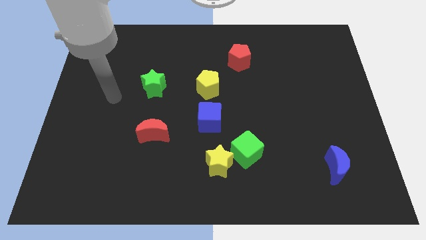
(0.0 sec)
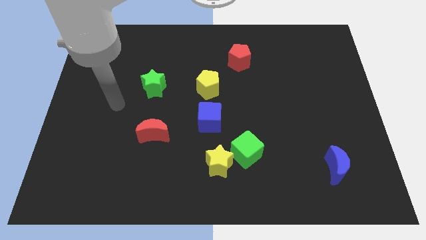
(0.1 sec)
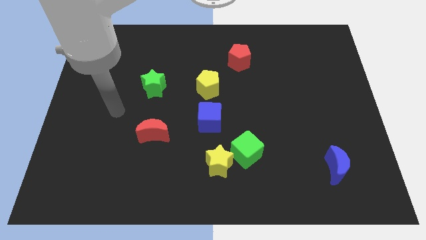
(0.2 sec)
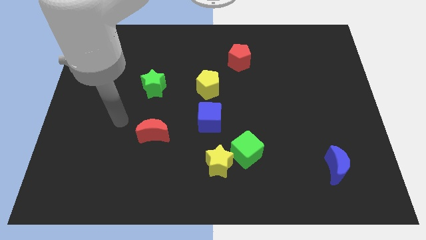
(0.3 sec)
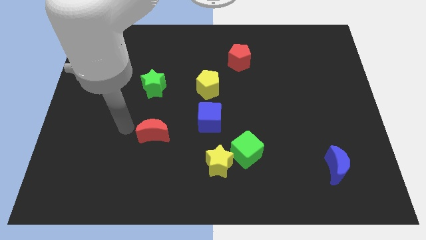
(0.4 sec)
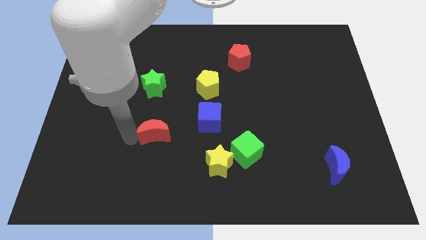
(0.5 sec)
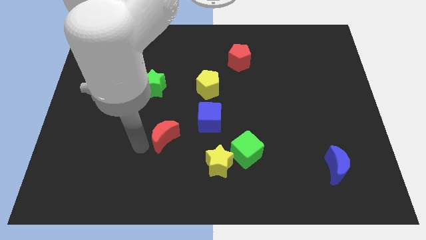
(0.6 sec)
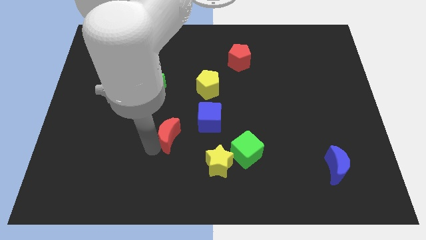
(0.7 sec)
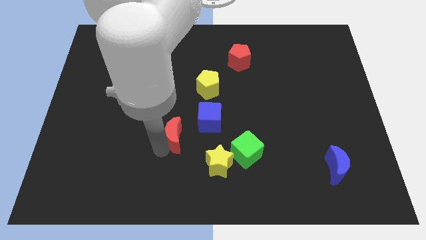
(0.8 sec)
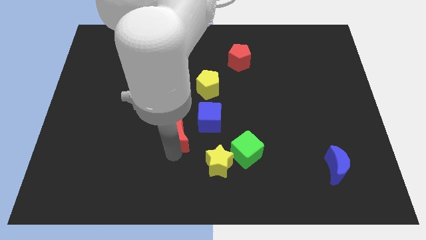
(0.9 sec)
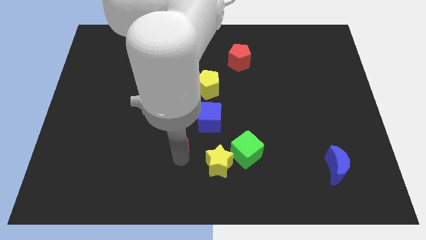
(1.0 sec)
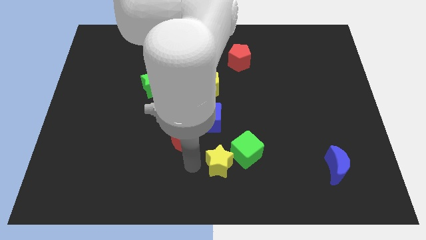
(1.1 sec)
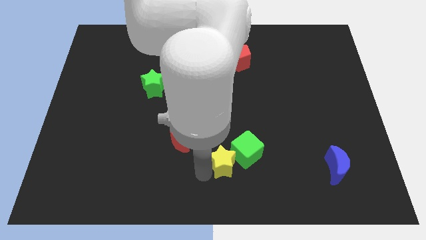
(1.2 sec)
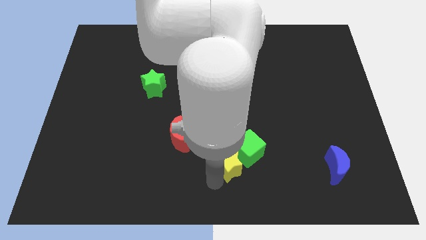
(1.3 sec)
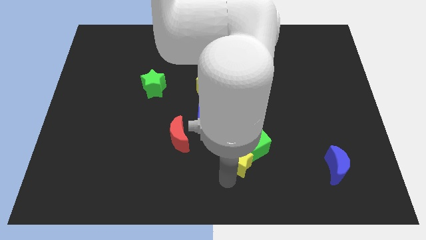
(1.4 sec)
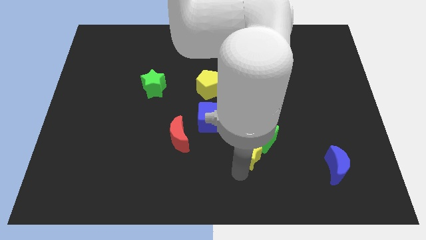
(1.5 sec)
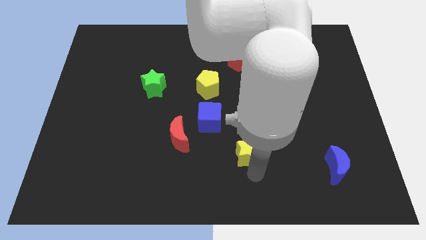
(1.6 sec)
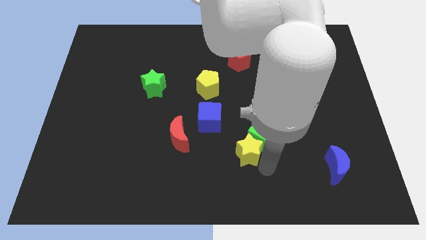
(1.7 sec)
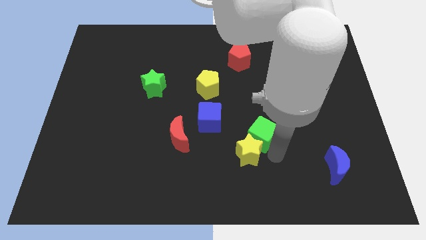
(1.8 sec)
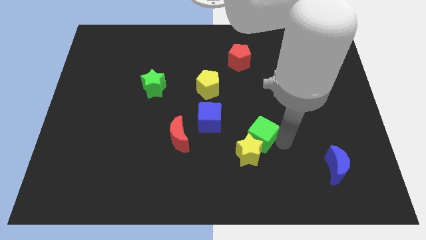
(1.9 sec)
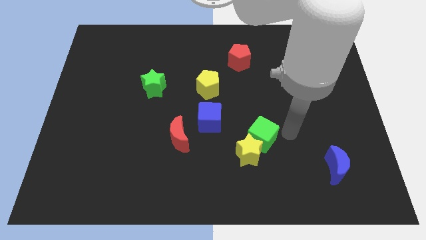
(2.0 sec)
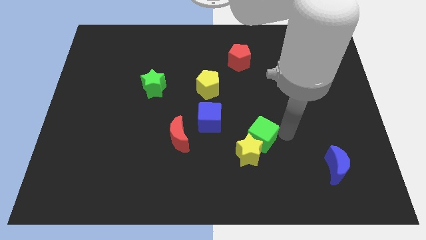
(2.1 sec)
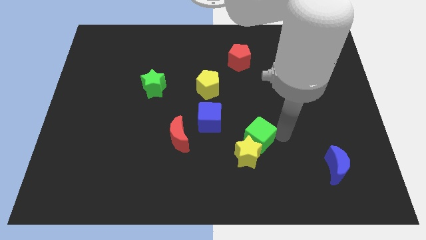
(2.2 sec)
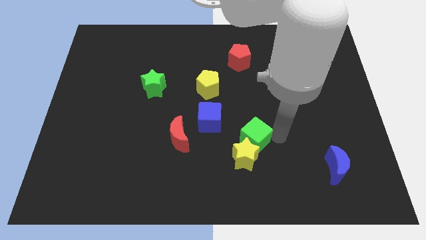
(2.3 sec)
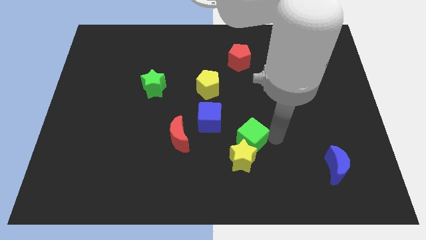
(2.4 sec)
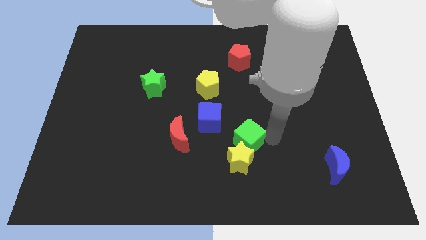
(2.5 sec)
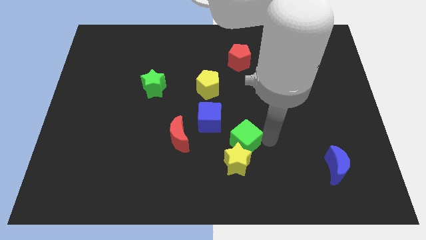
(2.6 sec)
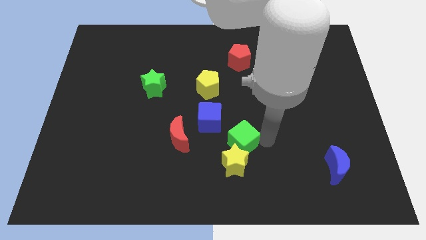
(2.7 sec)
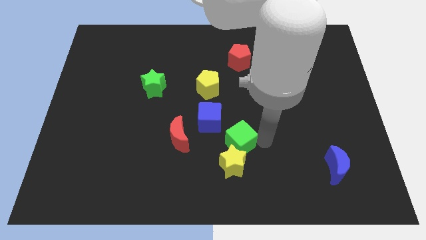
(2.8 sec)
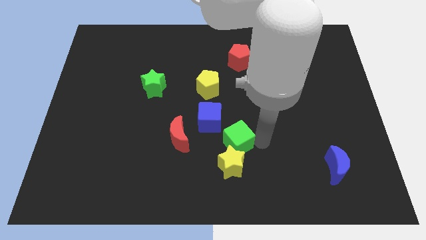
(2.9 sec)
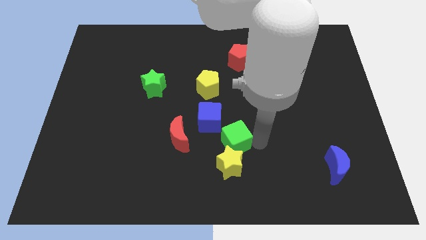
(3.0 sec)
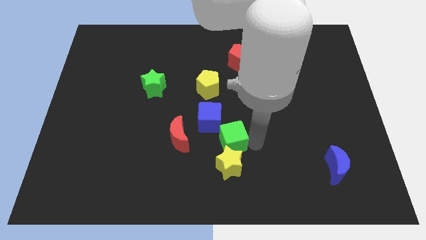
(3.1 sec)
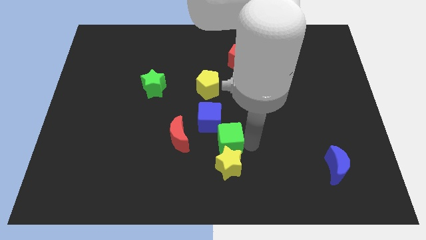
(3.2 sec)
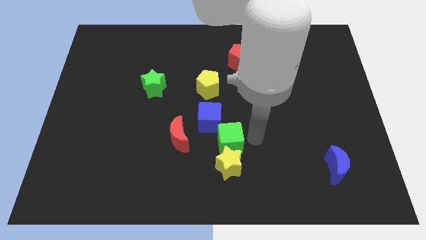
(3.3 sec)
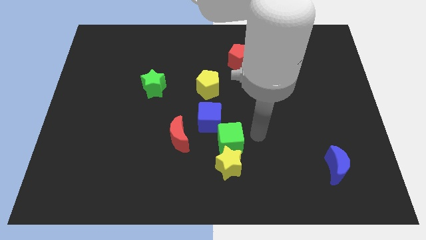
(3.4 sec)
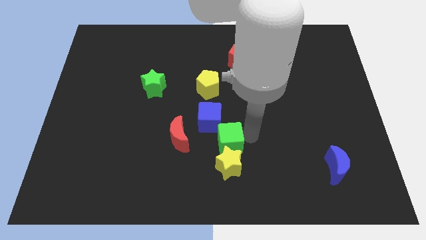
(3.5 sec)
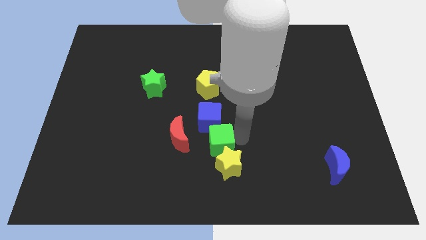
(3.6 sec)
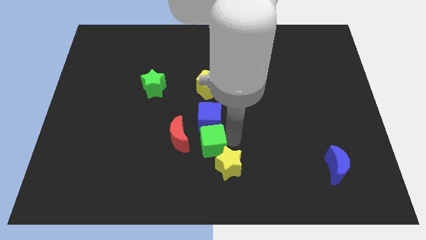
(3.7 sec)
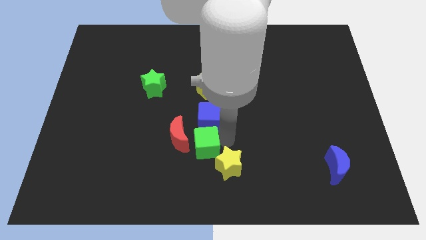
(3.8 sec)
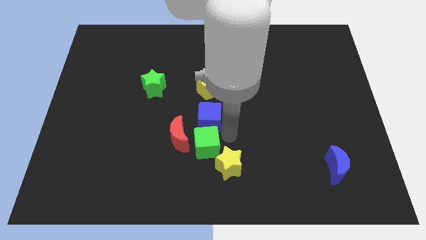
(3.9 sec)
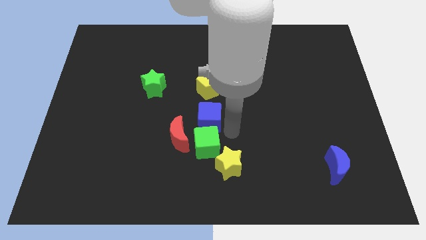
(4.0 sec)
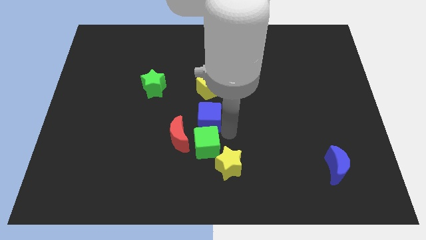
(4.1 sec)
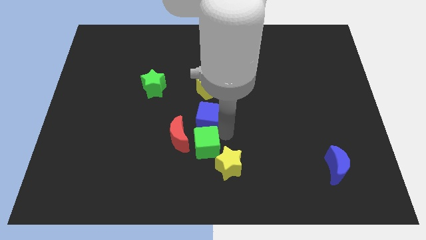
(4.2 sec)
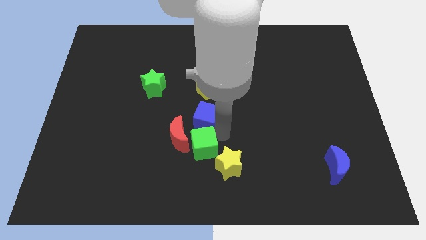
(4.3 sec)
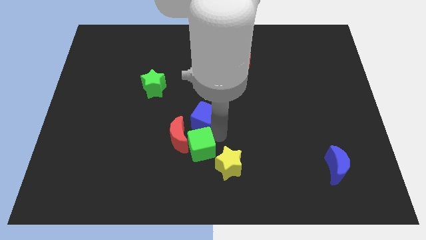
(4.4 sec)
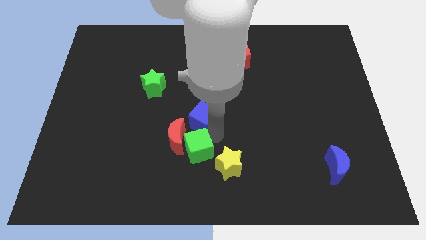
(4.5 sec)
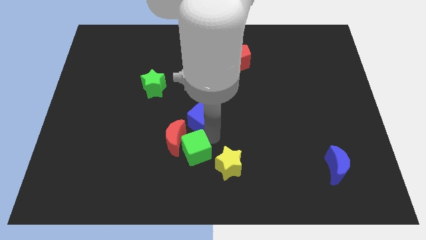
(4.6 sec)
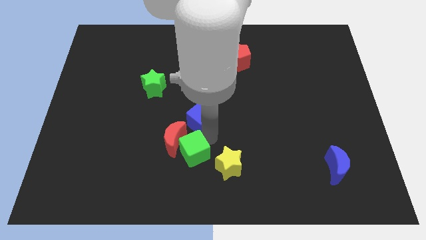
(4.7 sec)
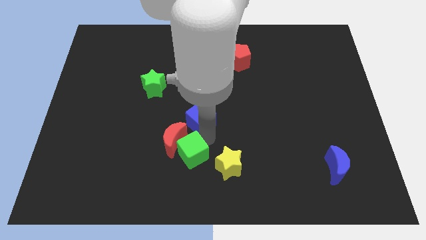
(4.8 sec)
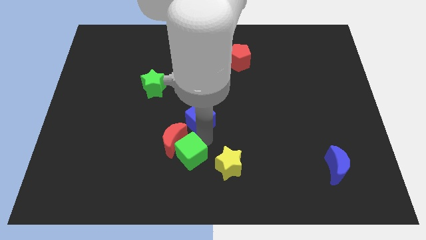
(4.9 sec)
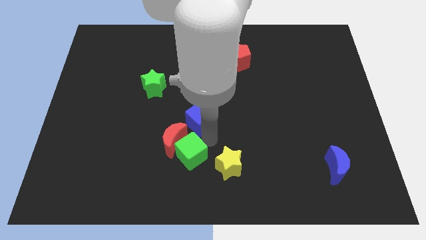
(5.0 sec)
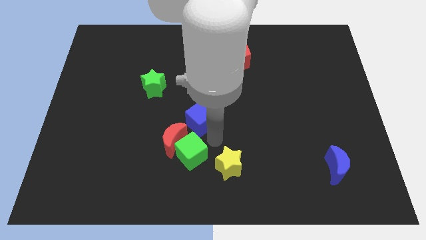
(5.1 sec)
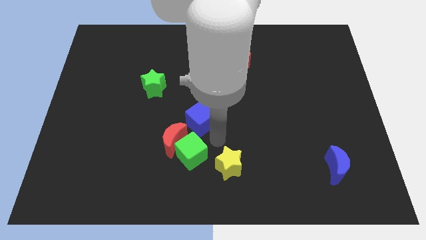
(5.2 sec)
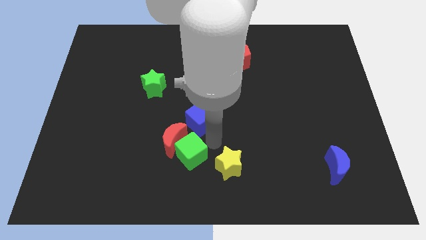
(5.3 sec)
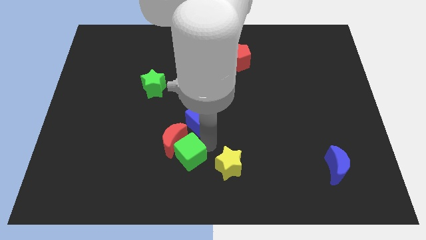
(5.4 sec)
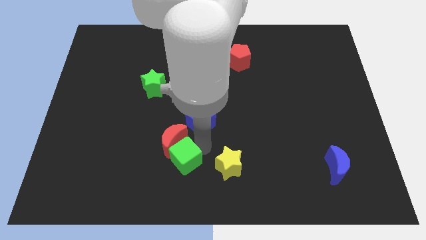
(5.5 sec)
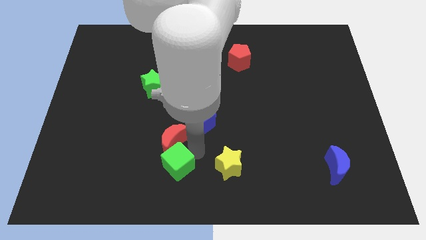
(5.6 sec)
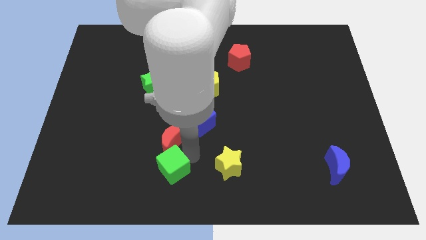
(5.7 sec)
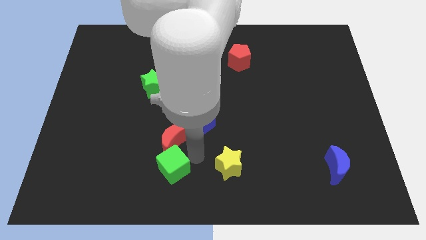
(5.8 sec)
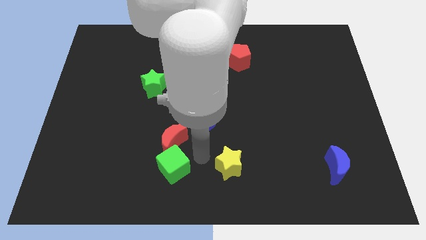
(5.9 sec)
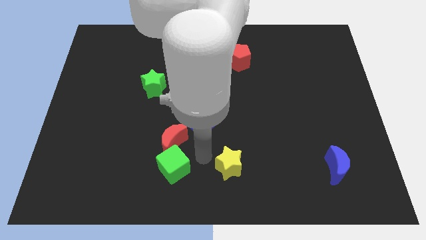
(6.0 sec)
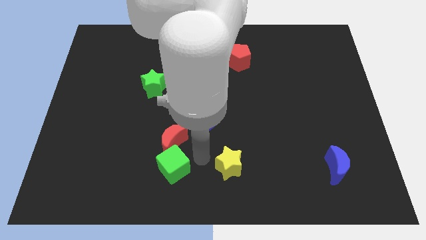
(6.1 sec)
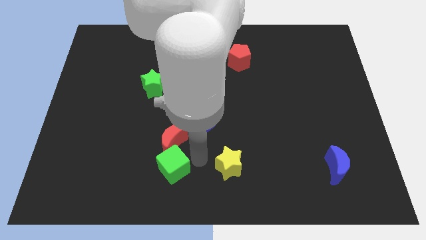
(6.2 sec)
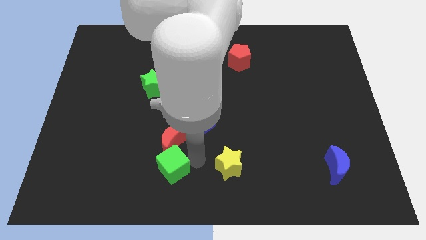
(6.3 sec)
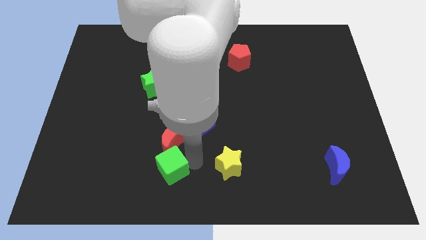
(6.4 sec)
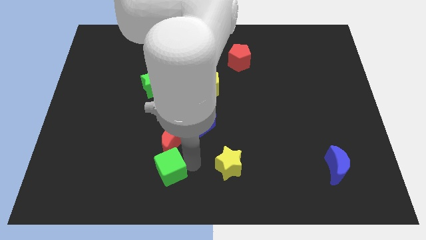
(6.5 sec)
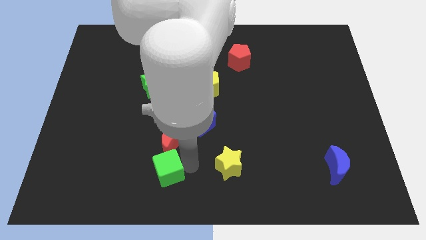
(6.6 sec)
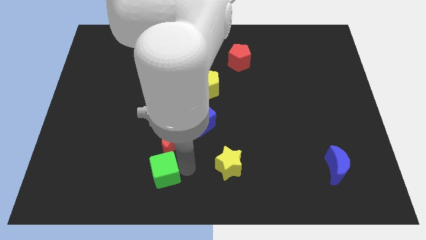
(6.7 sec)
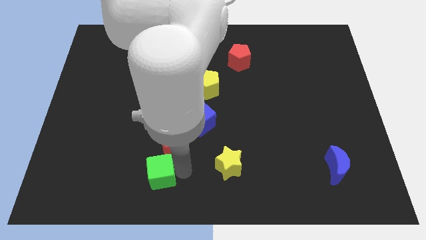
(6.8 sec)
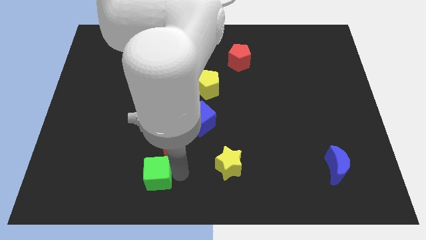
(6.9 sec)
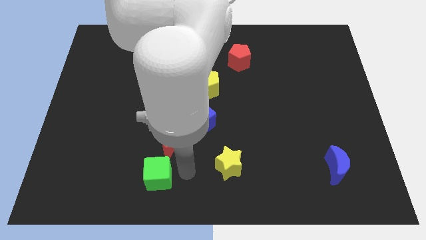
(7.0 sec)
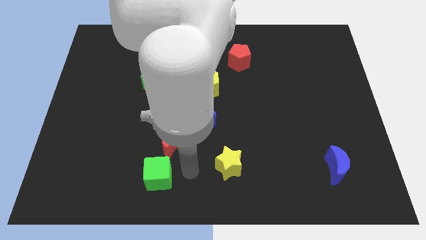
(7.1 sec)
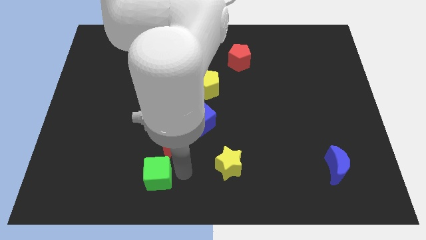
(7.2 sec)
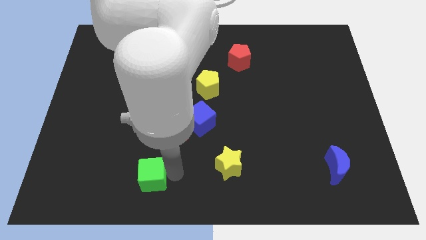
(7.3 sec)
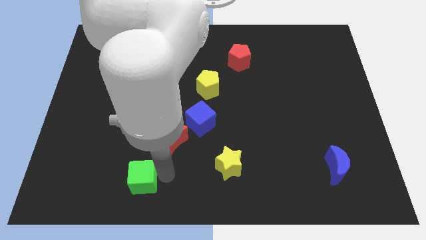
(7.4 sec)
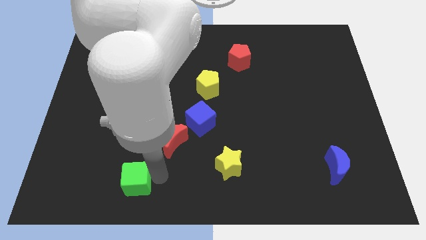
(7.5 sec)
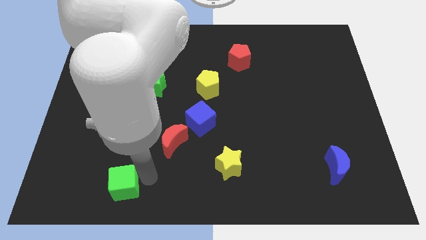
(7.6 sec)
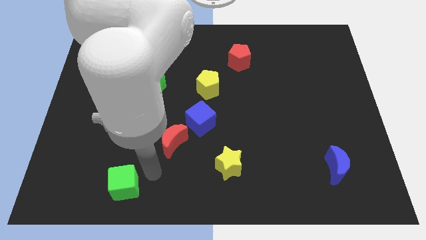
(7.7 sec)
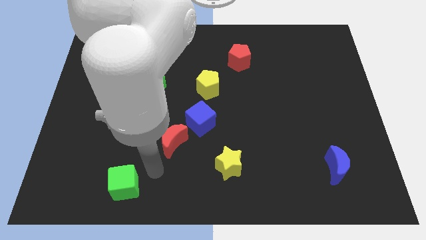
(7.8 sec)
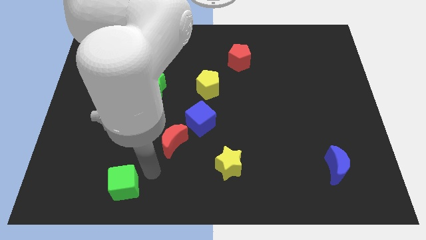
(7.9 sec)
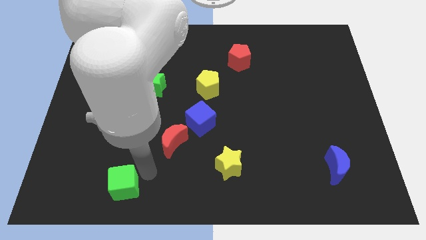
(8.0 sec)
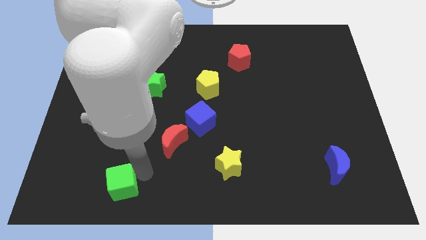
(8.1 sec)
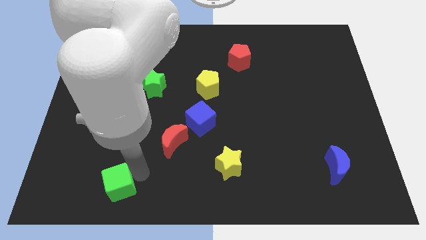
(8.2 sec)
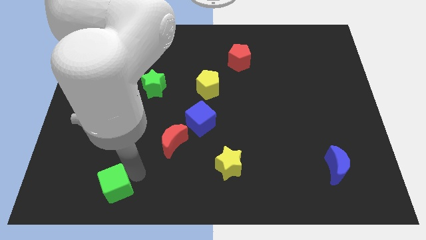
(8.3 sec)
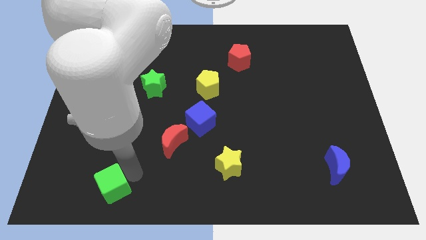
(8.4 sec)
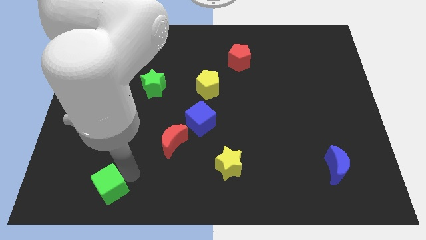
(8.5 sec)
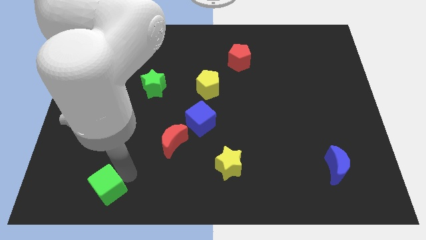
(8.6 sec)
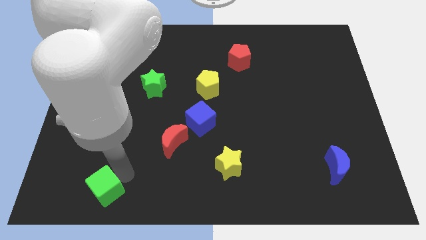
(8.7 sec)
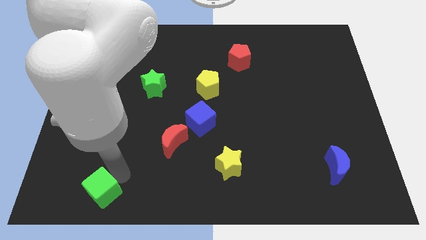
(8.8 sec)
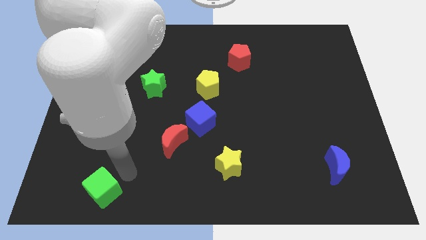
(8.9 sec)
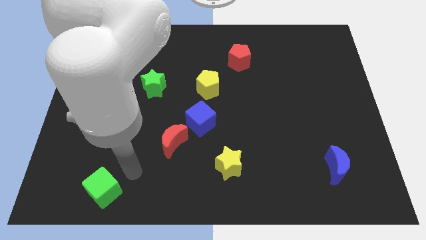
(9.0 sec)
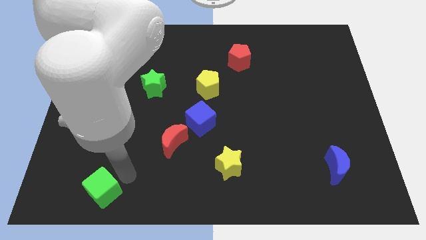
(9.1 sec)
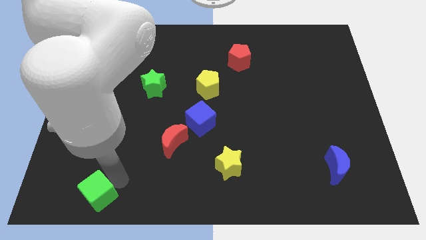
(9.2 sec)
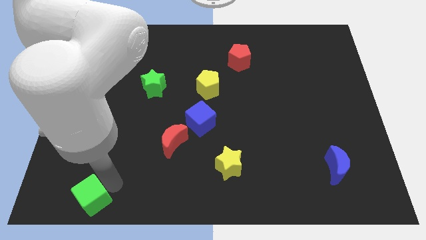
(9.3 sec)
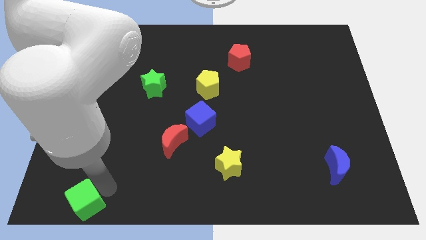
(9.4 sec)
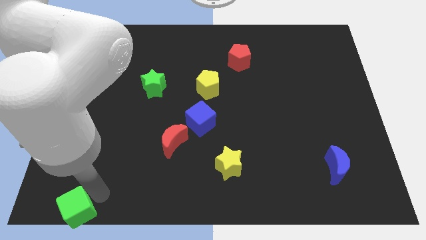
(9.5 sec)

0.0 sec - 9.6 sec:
slide the green cube to the lower left corner
